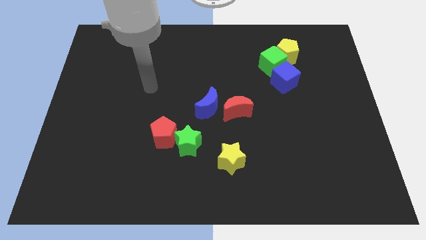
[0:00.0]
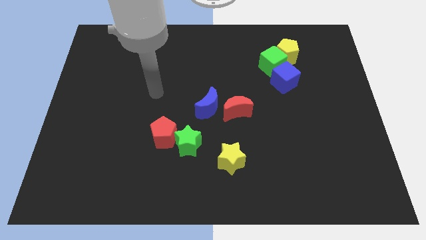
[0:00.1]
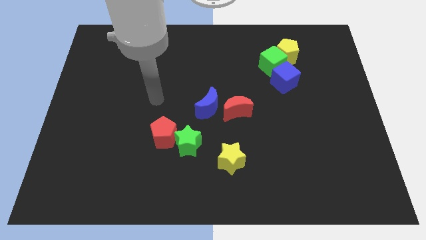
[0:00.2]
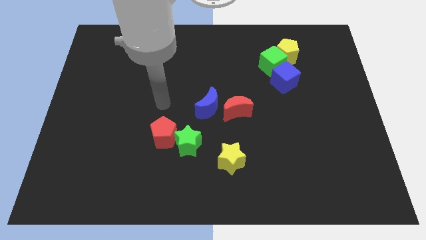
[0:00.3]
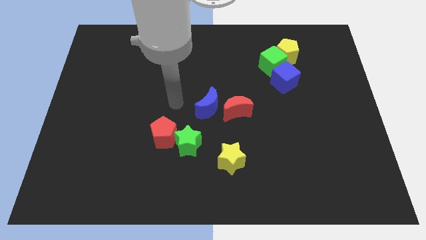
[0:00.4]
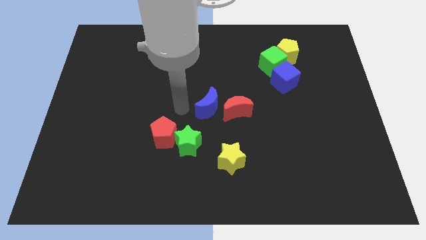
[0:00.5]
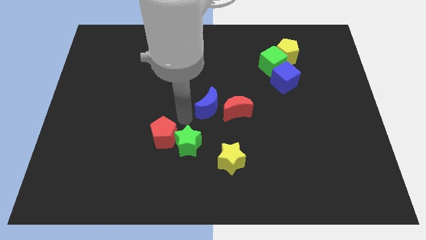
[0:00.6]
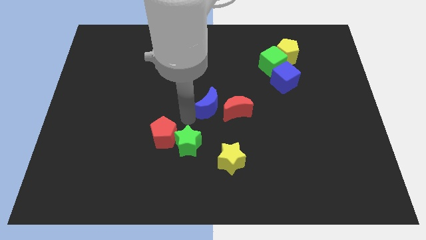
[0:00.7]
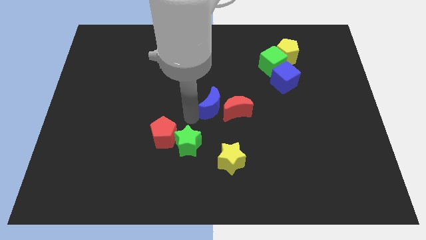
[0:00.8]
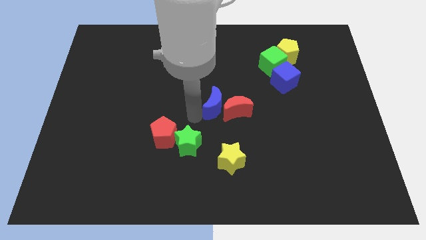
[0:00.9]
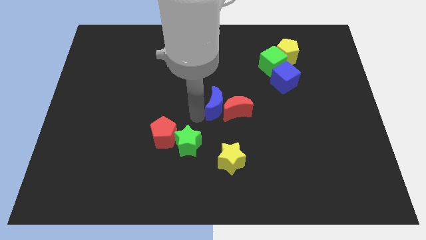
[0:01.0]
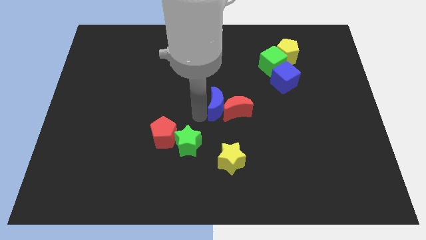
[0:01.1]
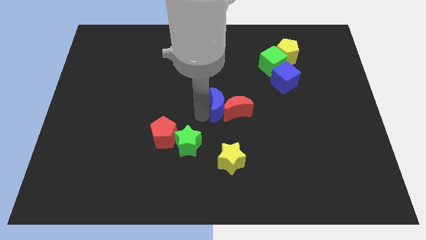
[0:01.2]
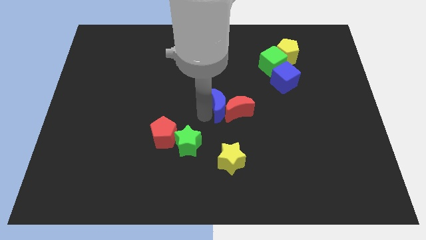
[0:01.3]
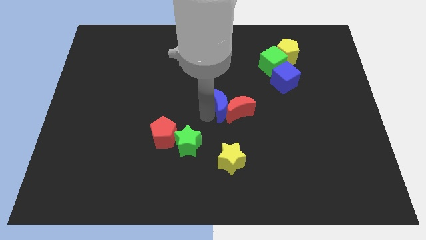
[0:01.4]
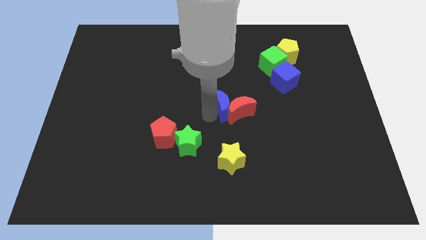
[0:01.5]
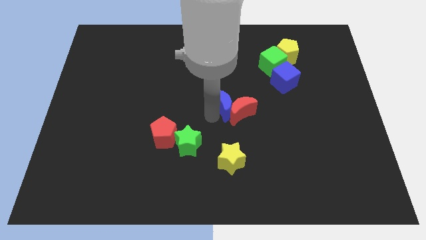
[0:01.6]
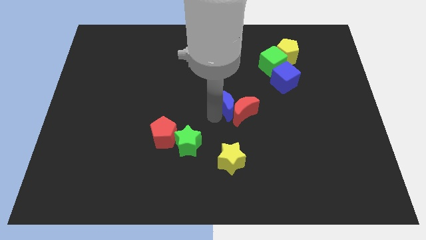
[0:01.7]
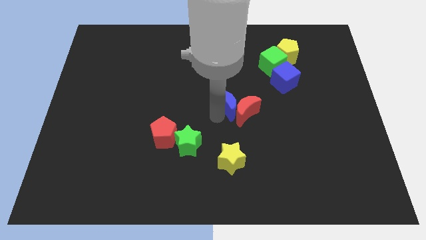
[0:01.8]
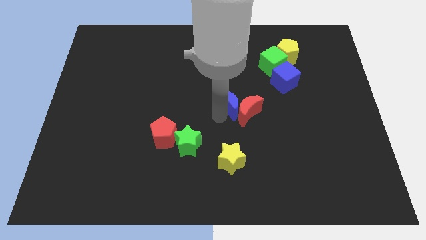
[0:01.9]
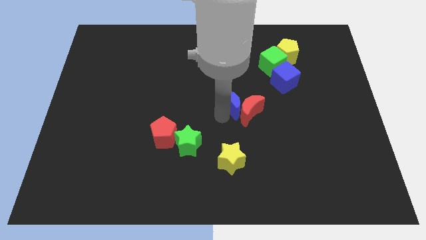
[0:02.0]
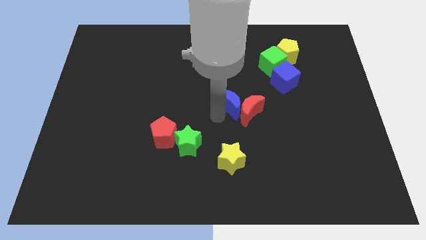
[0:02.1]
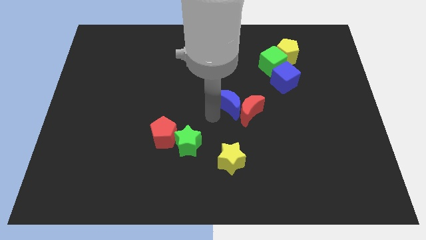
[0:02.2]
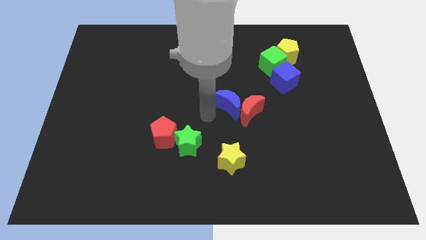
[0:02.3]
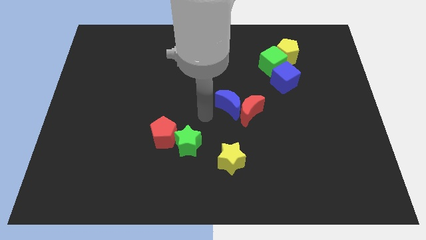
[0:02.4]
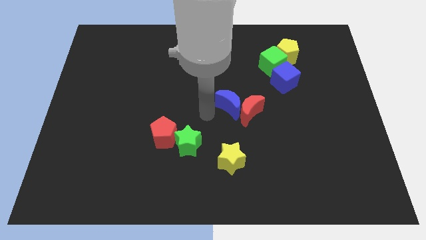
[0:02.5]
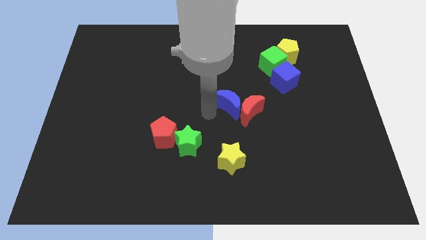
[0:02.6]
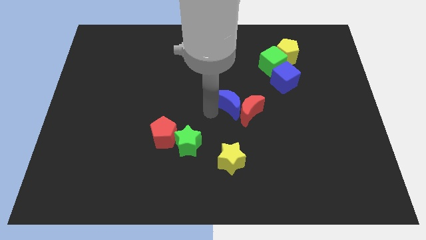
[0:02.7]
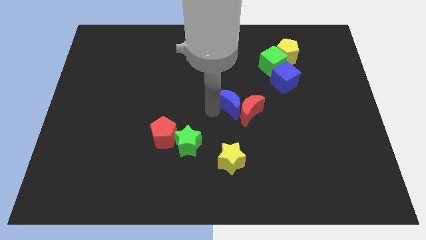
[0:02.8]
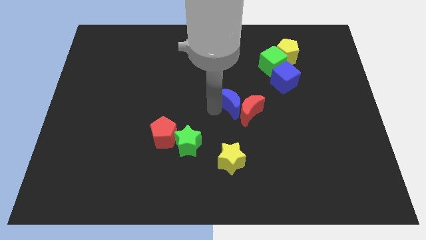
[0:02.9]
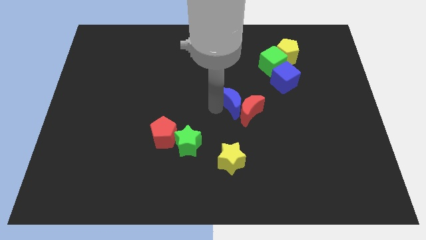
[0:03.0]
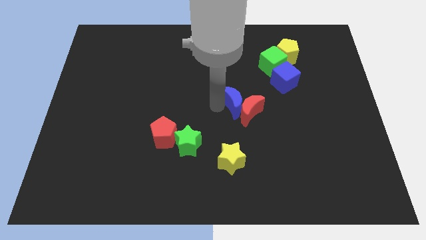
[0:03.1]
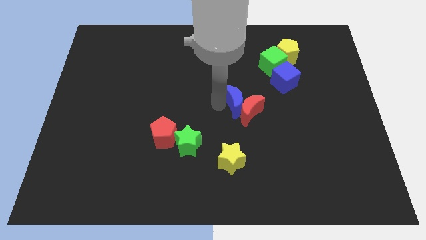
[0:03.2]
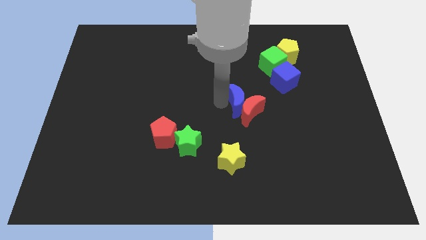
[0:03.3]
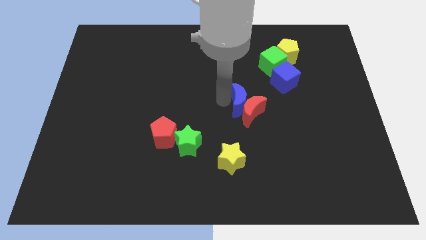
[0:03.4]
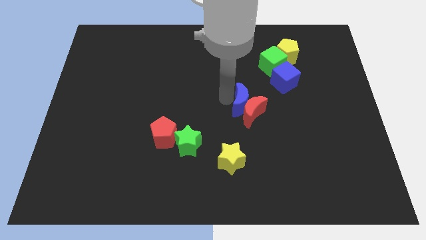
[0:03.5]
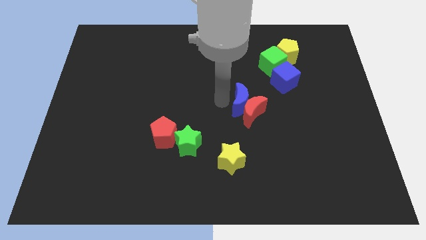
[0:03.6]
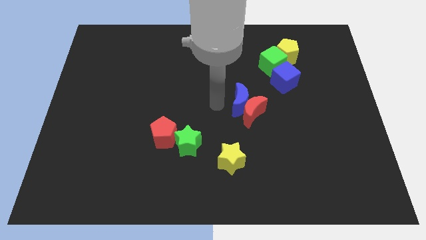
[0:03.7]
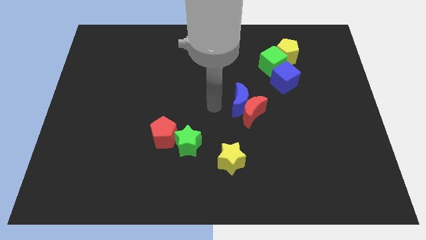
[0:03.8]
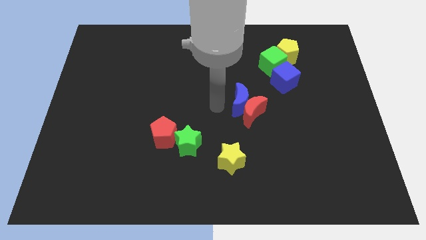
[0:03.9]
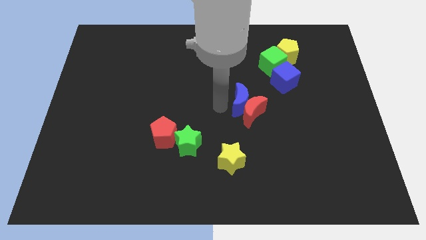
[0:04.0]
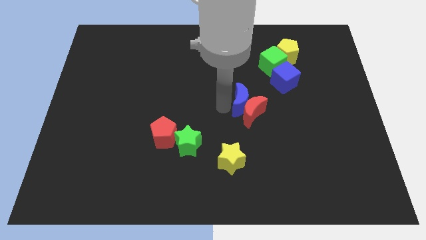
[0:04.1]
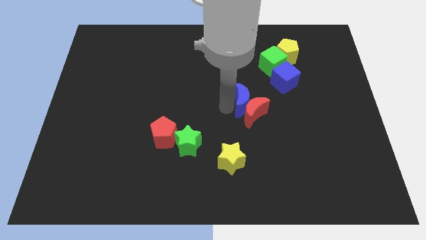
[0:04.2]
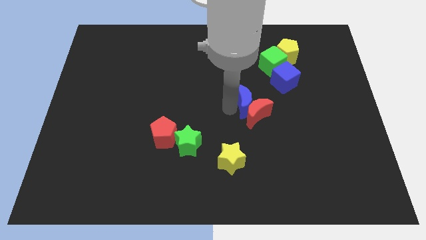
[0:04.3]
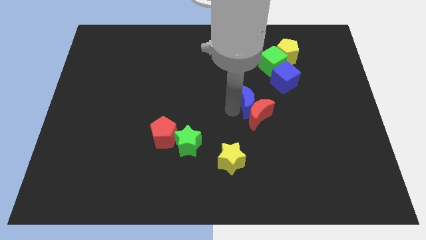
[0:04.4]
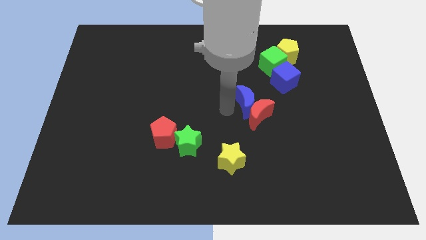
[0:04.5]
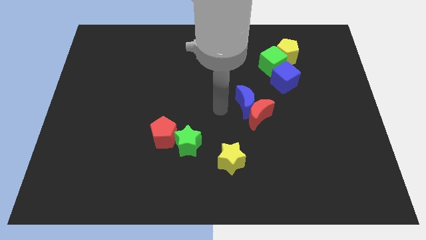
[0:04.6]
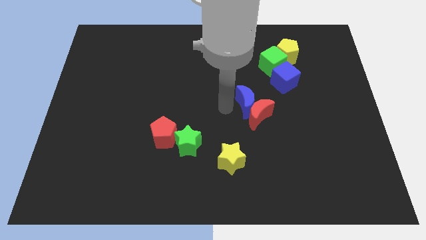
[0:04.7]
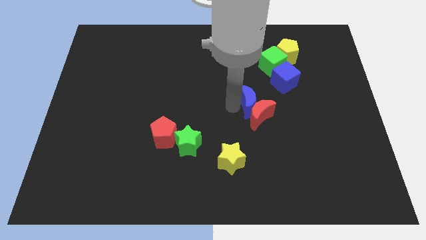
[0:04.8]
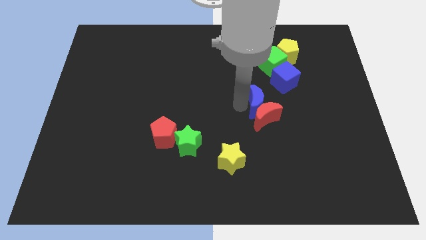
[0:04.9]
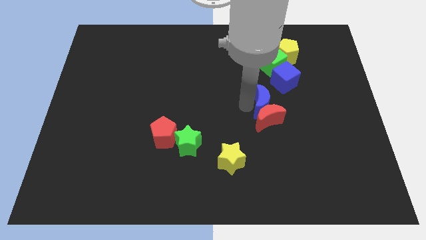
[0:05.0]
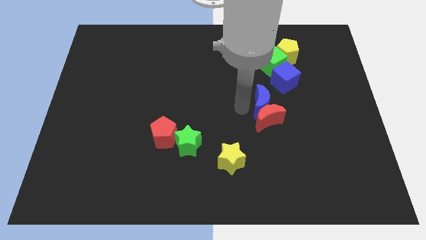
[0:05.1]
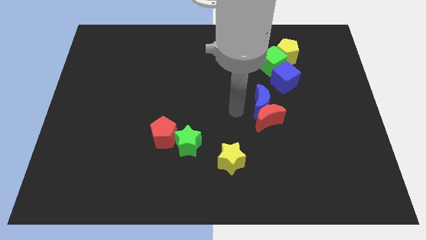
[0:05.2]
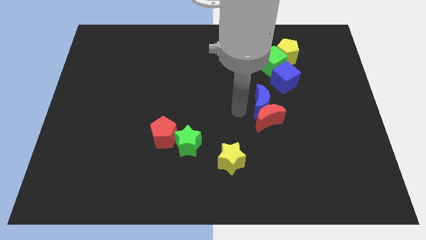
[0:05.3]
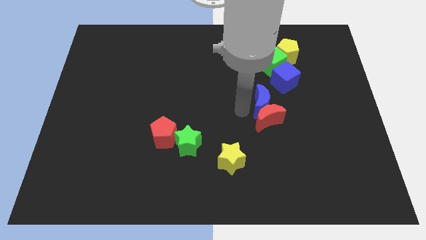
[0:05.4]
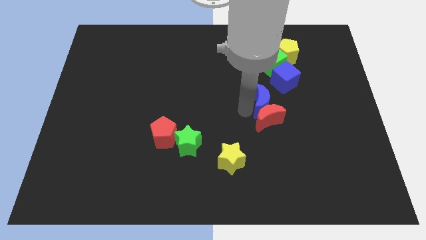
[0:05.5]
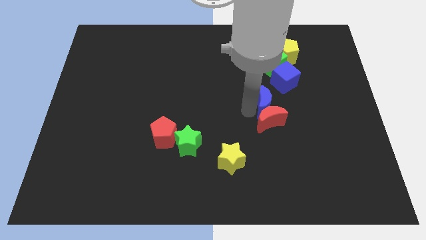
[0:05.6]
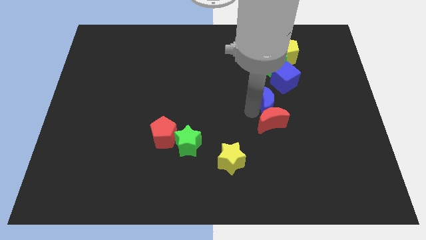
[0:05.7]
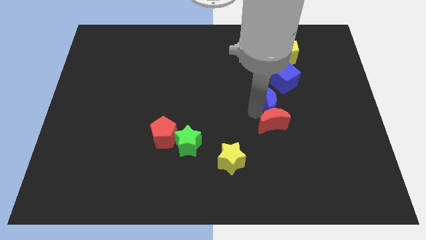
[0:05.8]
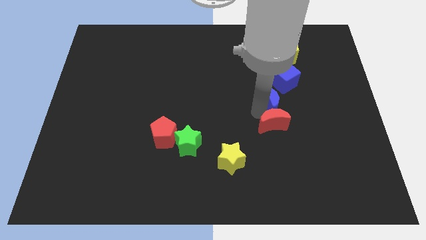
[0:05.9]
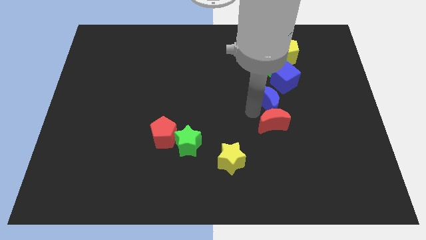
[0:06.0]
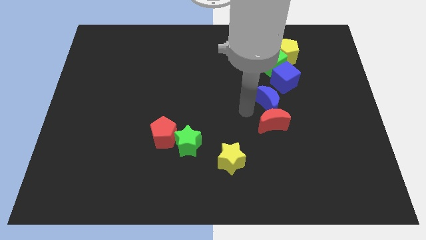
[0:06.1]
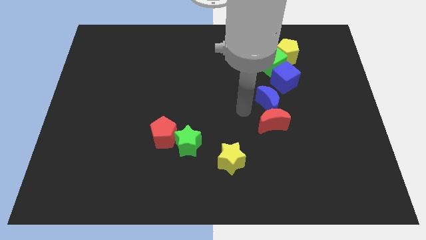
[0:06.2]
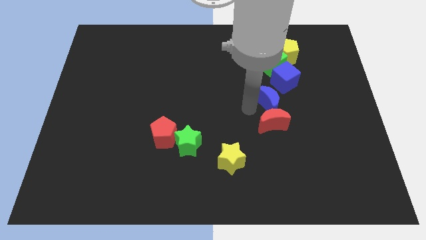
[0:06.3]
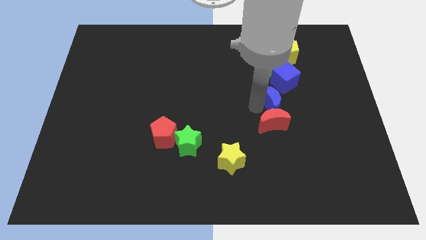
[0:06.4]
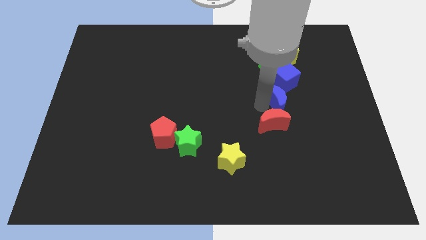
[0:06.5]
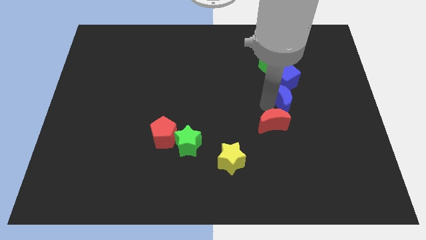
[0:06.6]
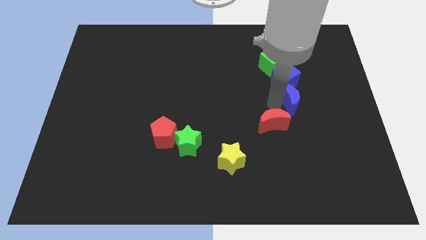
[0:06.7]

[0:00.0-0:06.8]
push the blue moon to the bottom right side of the blue cube
